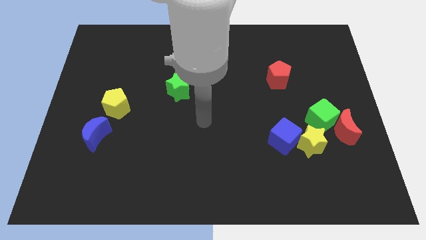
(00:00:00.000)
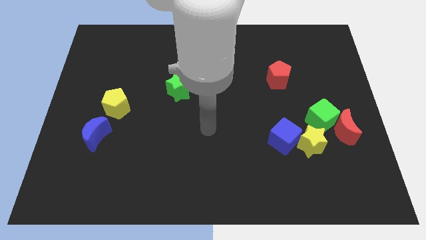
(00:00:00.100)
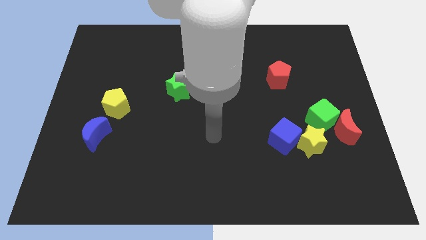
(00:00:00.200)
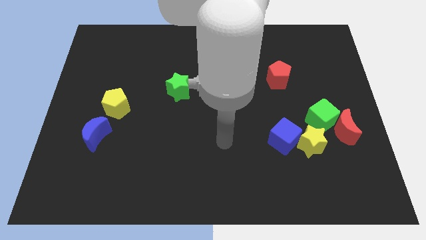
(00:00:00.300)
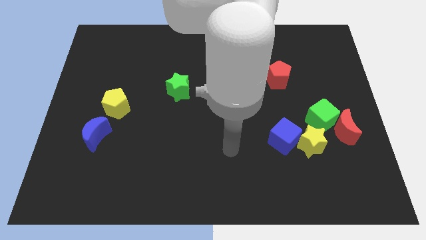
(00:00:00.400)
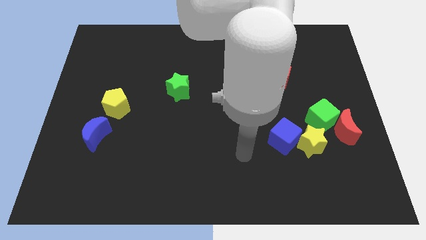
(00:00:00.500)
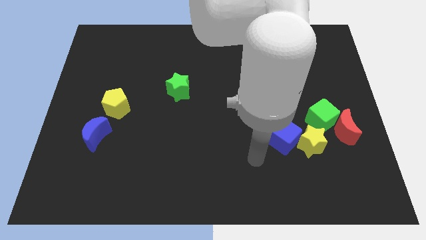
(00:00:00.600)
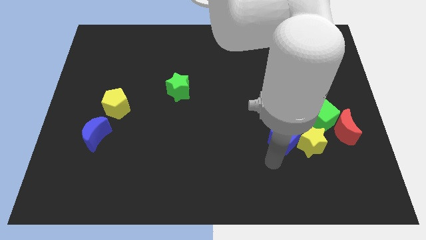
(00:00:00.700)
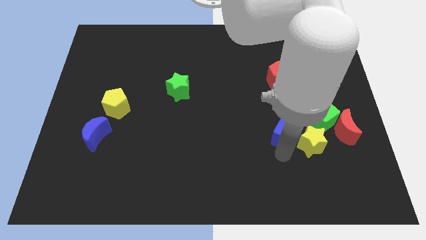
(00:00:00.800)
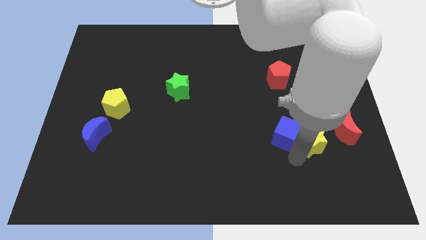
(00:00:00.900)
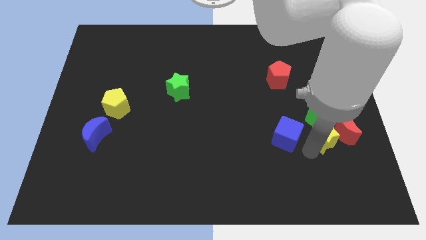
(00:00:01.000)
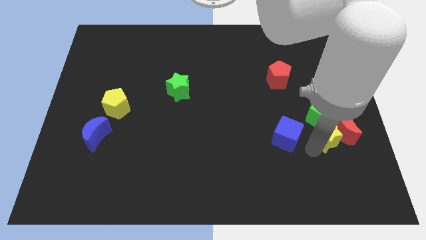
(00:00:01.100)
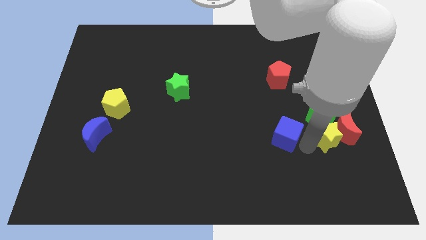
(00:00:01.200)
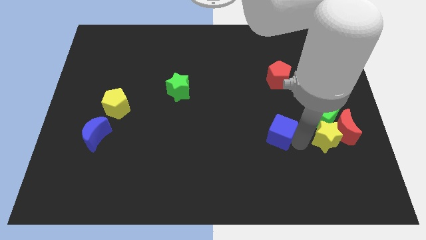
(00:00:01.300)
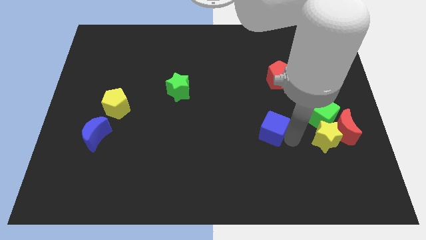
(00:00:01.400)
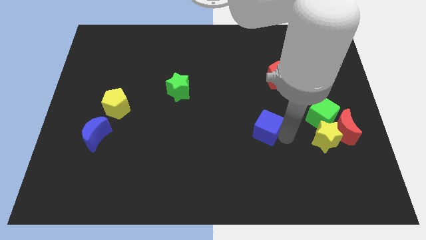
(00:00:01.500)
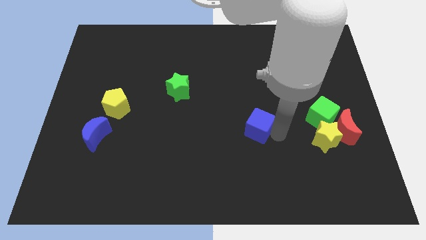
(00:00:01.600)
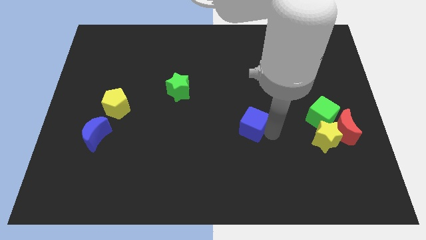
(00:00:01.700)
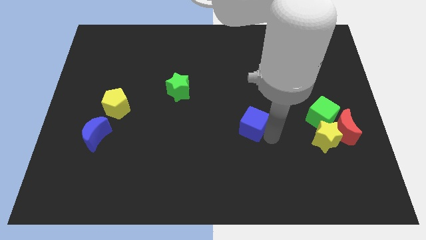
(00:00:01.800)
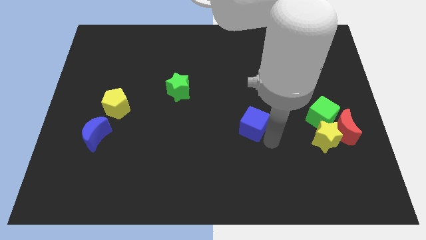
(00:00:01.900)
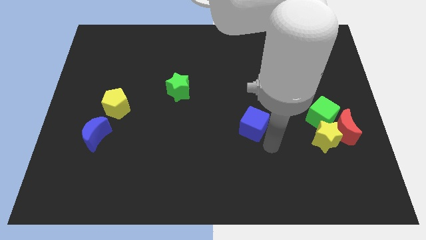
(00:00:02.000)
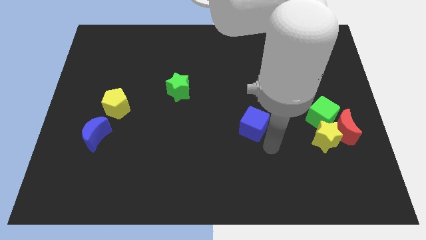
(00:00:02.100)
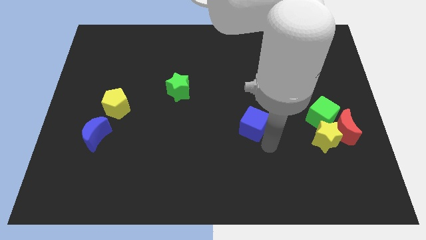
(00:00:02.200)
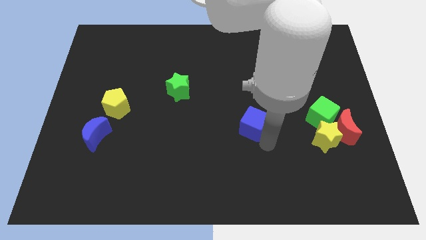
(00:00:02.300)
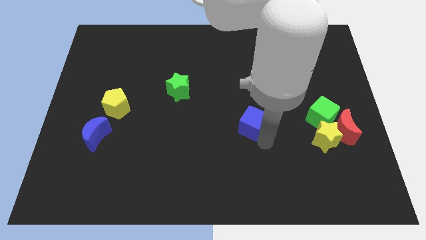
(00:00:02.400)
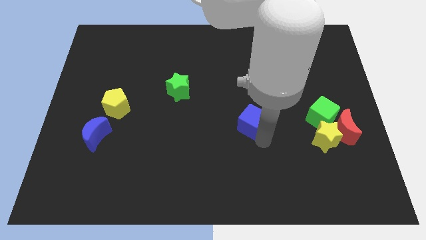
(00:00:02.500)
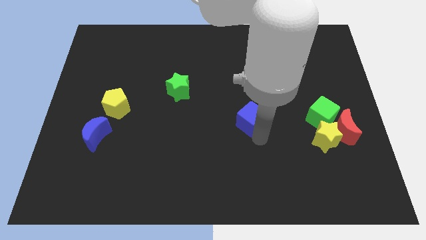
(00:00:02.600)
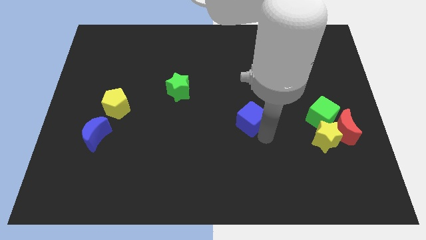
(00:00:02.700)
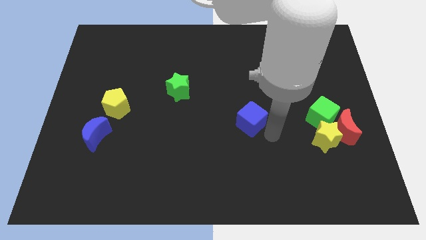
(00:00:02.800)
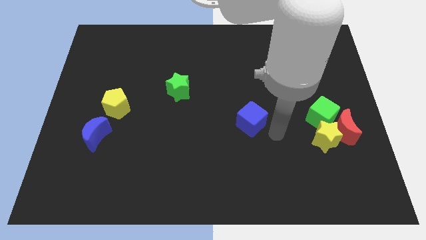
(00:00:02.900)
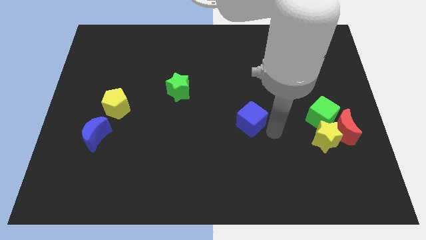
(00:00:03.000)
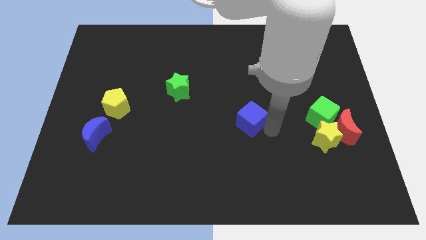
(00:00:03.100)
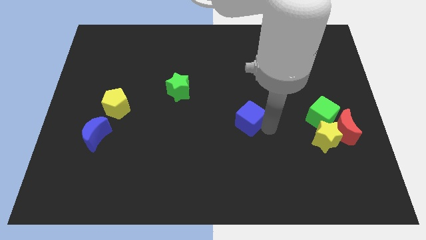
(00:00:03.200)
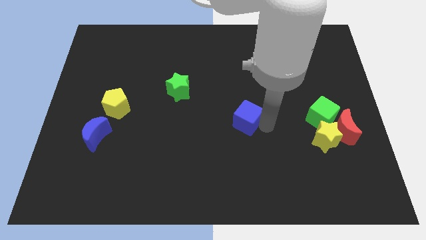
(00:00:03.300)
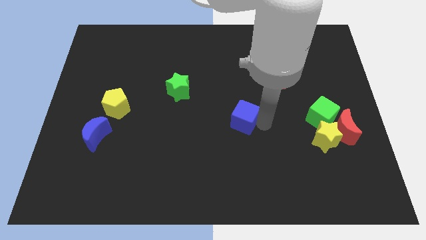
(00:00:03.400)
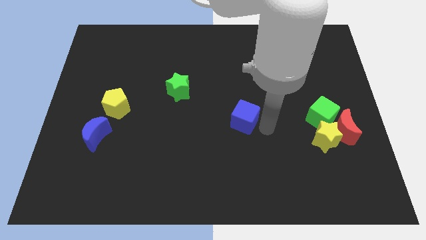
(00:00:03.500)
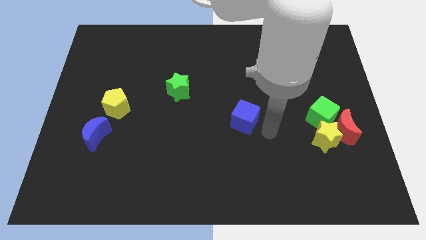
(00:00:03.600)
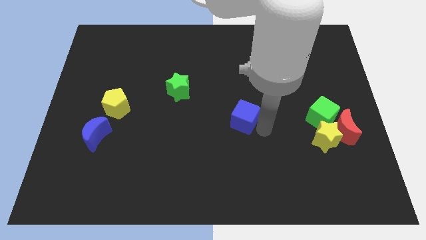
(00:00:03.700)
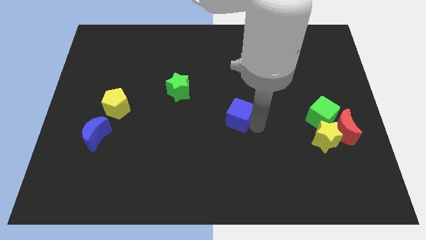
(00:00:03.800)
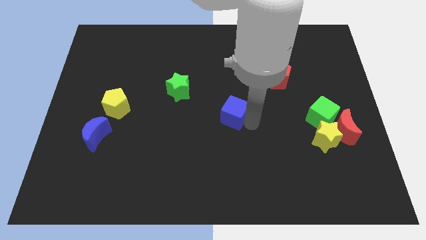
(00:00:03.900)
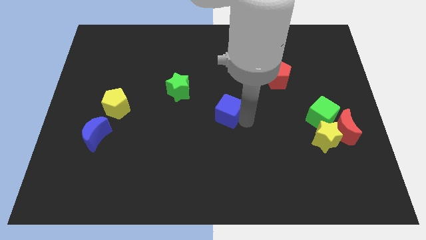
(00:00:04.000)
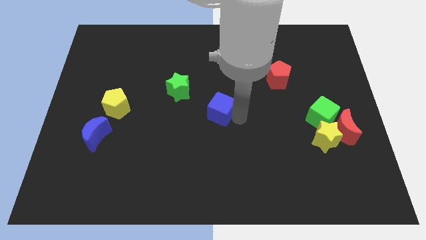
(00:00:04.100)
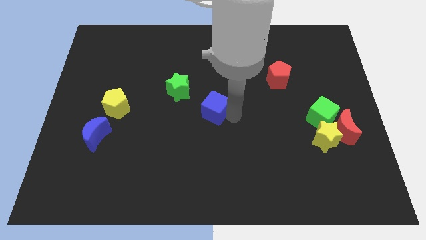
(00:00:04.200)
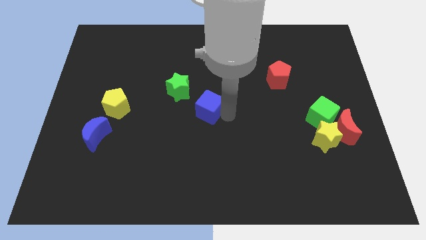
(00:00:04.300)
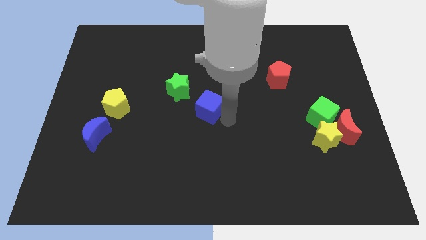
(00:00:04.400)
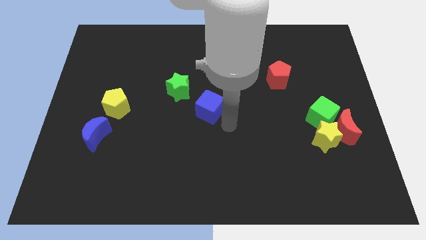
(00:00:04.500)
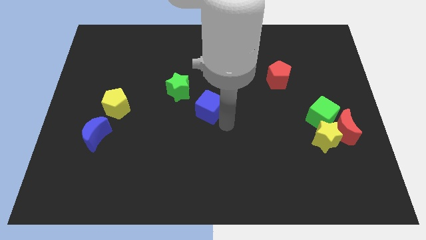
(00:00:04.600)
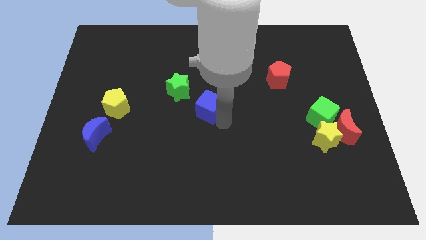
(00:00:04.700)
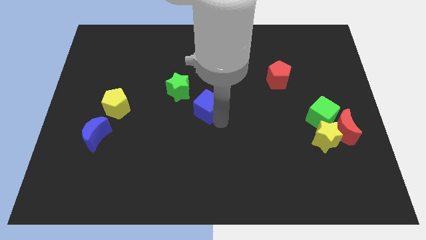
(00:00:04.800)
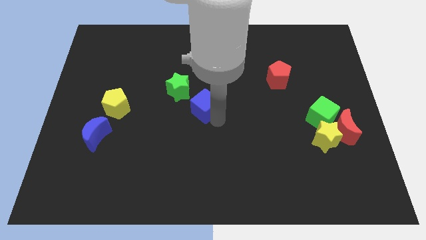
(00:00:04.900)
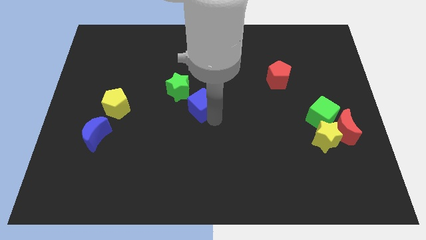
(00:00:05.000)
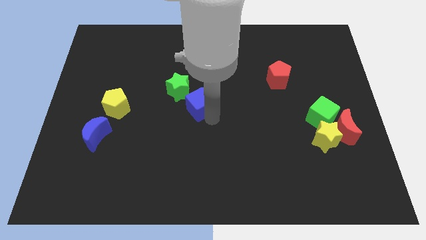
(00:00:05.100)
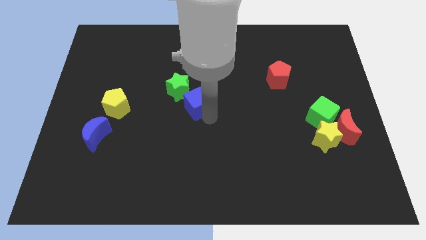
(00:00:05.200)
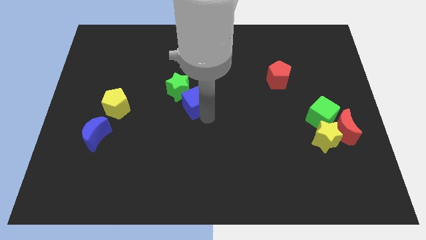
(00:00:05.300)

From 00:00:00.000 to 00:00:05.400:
move the blue cube close to the green star

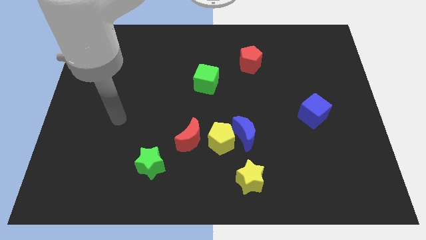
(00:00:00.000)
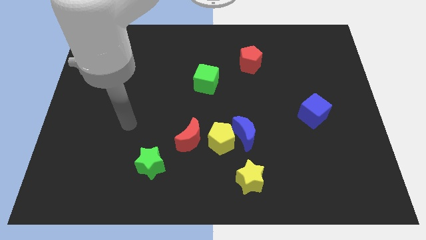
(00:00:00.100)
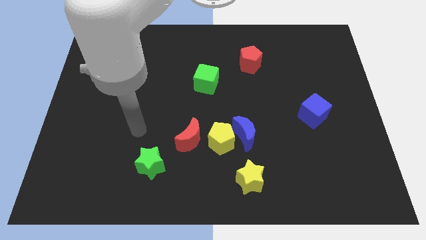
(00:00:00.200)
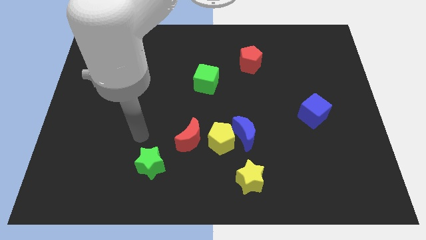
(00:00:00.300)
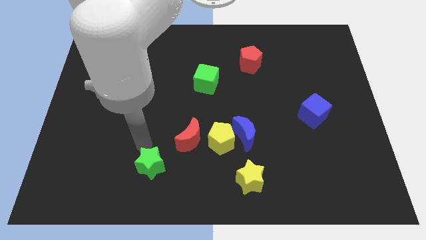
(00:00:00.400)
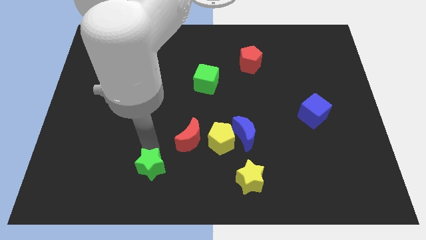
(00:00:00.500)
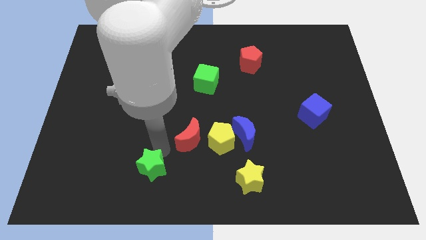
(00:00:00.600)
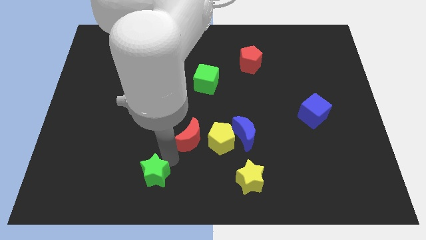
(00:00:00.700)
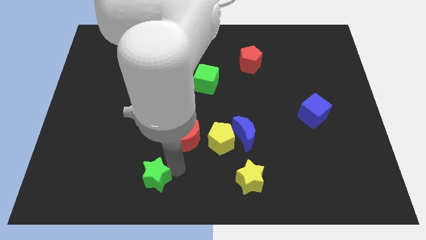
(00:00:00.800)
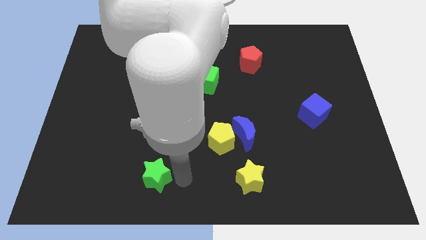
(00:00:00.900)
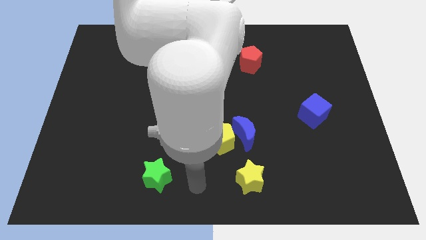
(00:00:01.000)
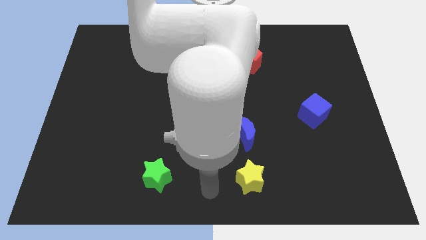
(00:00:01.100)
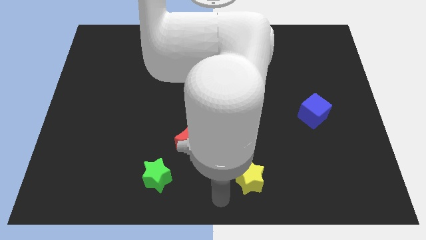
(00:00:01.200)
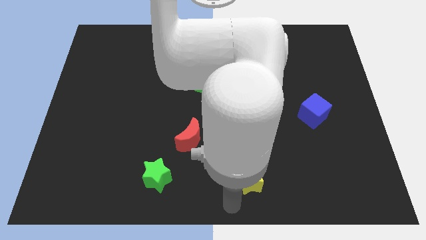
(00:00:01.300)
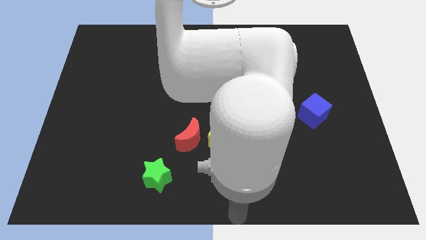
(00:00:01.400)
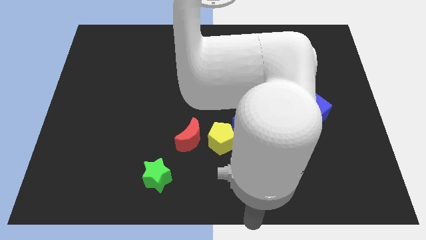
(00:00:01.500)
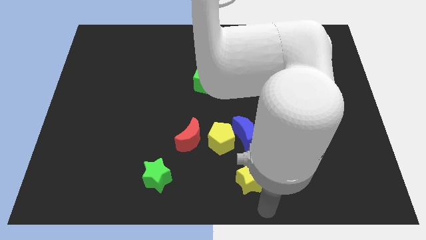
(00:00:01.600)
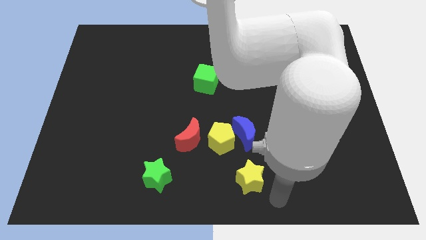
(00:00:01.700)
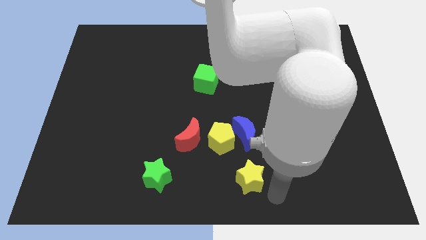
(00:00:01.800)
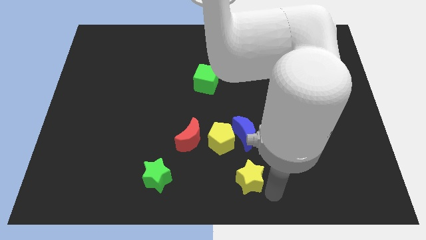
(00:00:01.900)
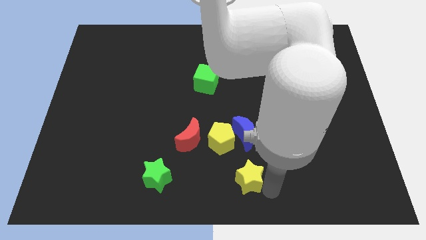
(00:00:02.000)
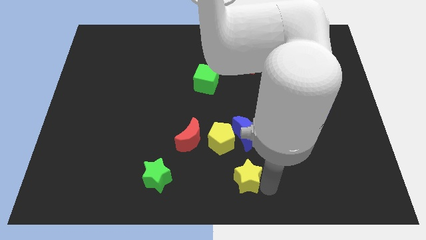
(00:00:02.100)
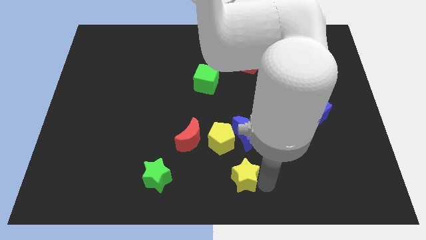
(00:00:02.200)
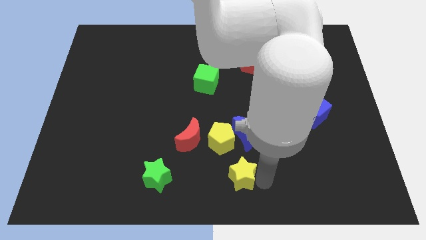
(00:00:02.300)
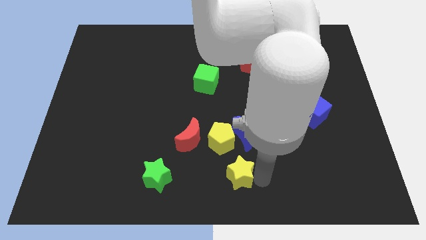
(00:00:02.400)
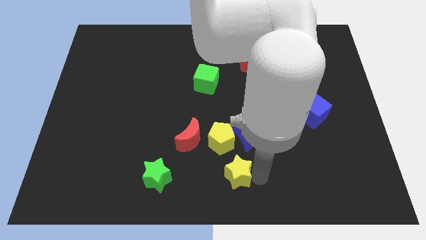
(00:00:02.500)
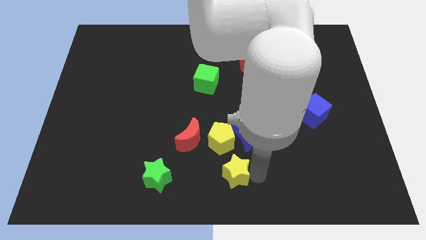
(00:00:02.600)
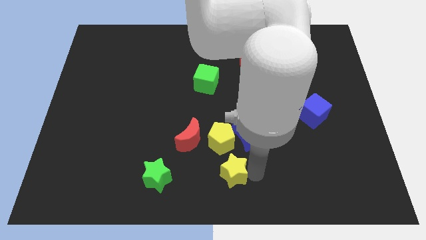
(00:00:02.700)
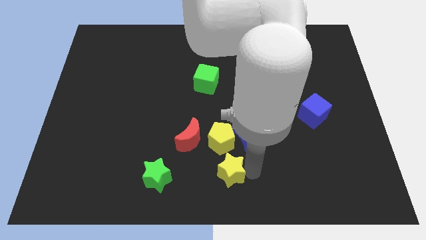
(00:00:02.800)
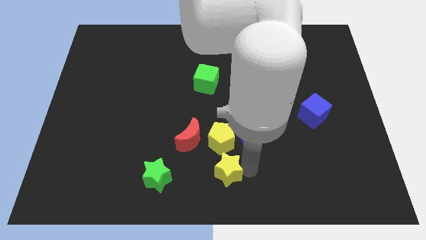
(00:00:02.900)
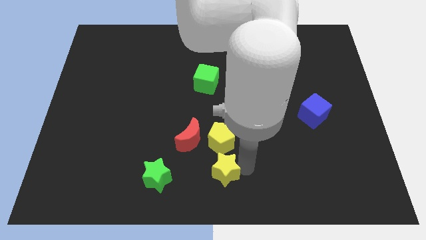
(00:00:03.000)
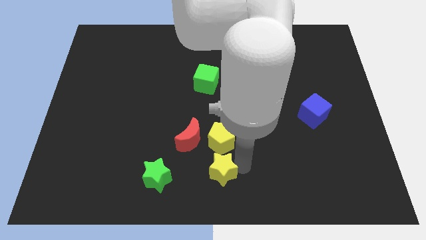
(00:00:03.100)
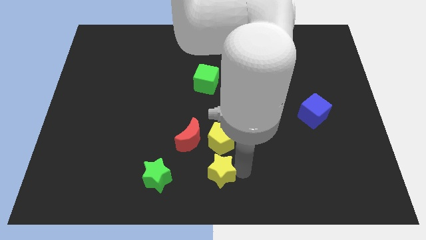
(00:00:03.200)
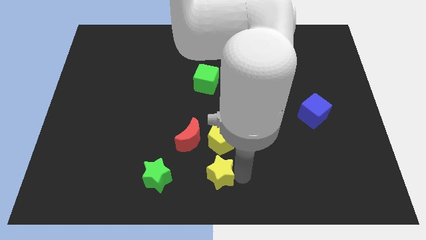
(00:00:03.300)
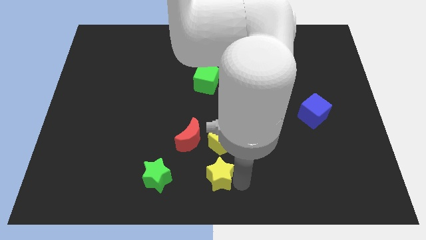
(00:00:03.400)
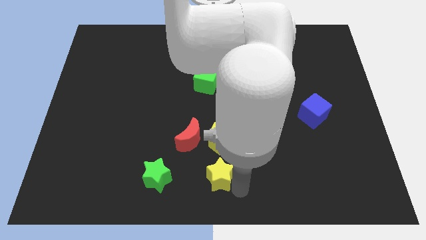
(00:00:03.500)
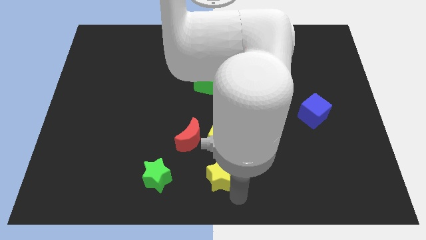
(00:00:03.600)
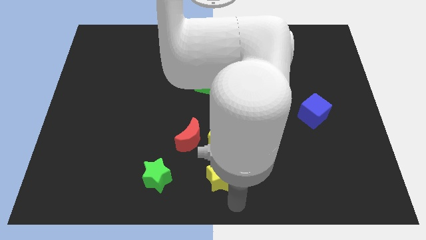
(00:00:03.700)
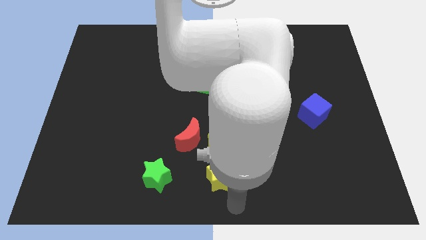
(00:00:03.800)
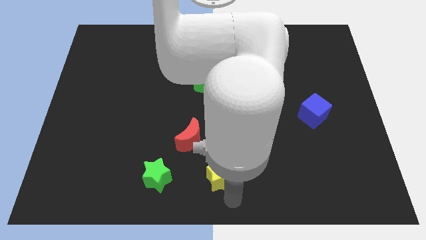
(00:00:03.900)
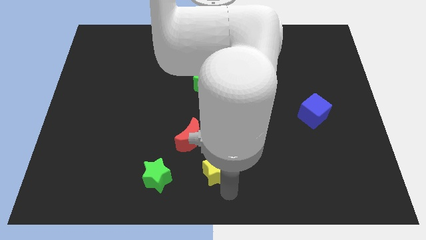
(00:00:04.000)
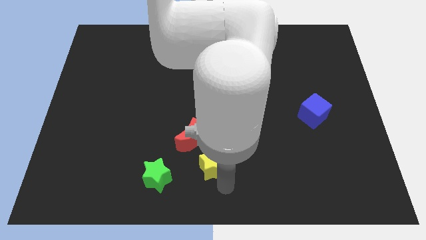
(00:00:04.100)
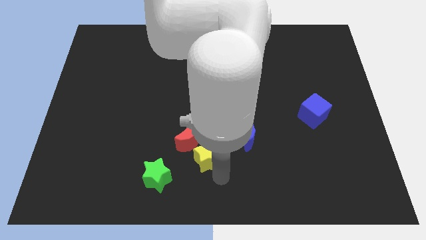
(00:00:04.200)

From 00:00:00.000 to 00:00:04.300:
move the yellow star next to the red moon
